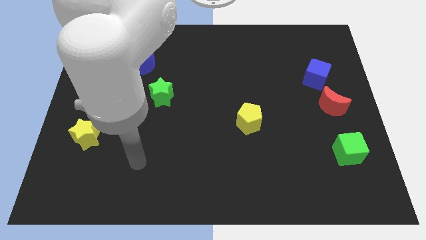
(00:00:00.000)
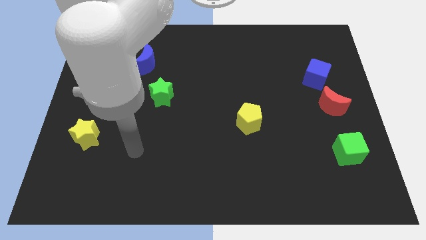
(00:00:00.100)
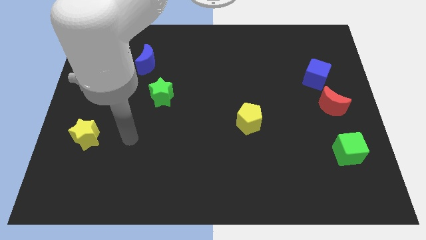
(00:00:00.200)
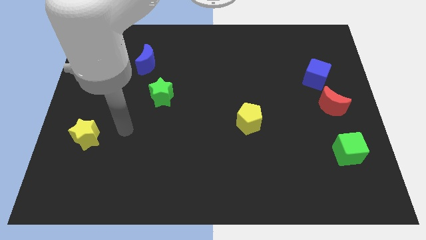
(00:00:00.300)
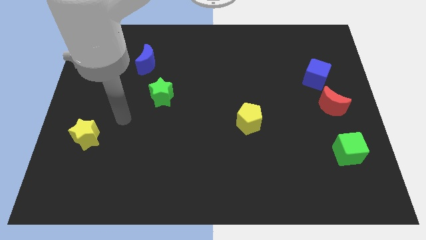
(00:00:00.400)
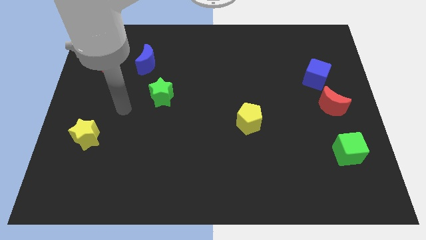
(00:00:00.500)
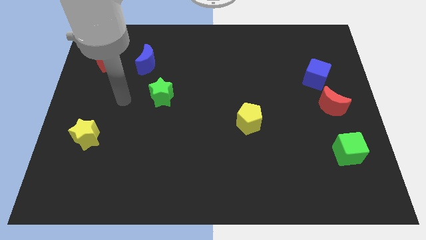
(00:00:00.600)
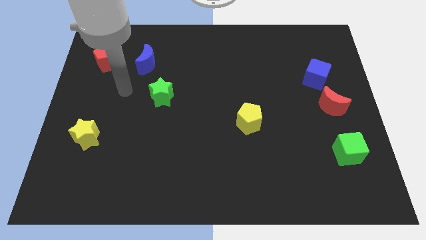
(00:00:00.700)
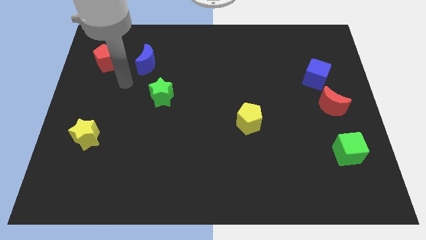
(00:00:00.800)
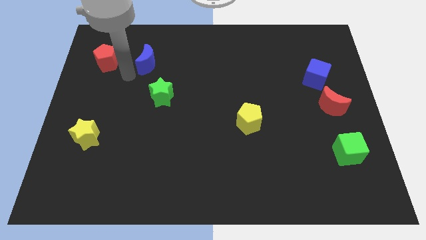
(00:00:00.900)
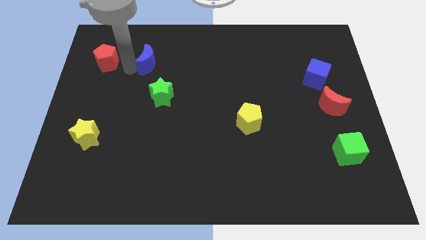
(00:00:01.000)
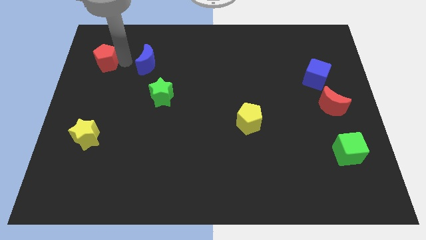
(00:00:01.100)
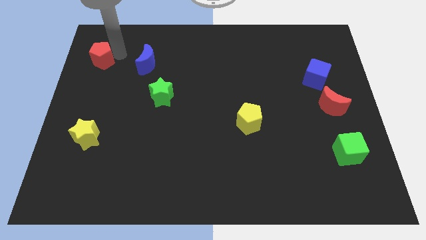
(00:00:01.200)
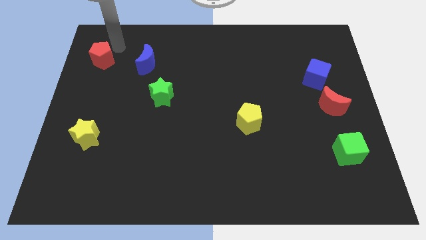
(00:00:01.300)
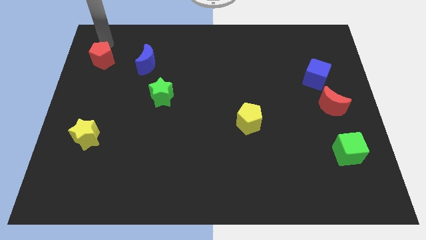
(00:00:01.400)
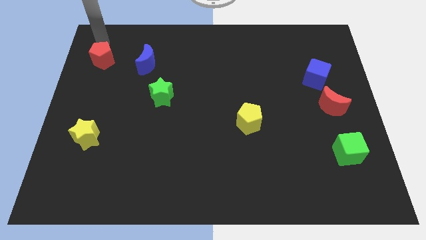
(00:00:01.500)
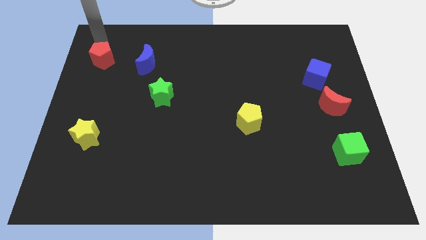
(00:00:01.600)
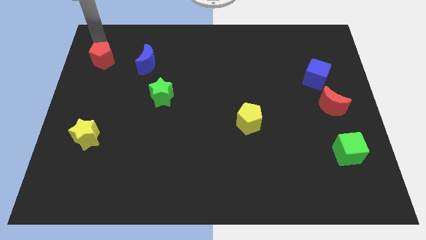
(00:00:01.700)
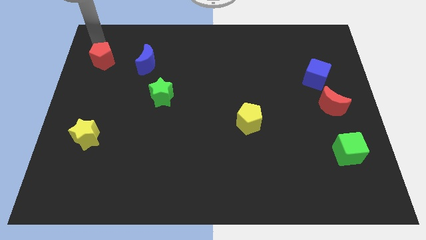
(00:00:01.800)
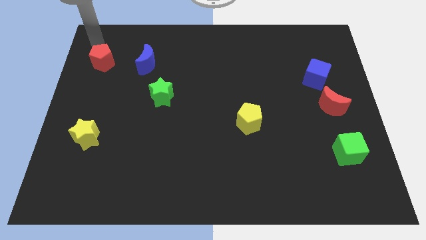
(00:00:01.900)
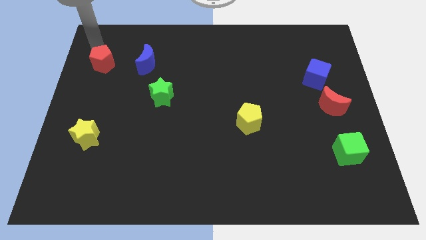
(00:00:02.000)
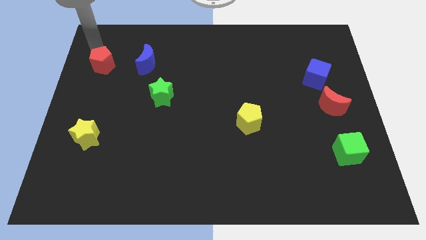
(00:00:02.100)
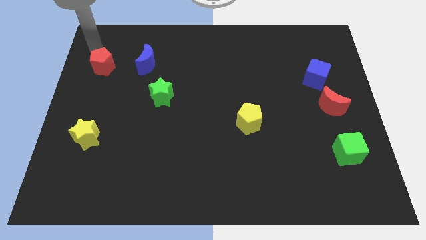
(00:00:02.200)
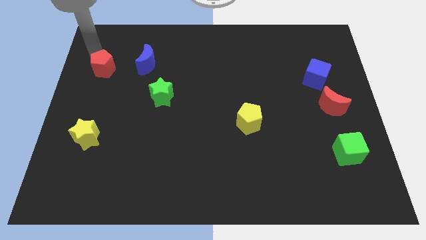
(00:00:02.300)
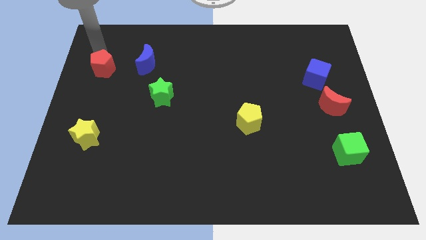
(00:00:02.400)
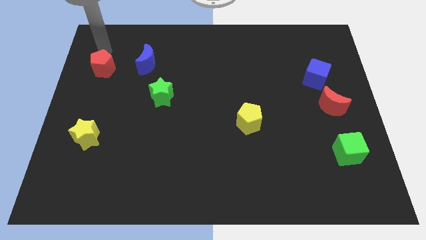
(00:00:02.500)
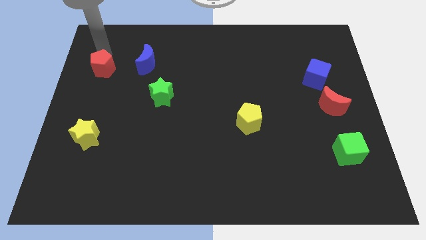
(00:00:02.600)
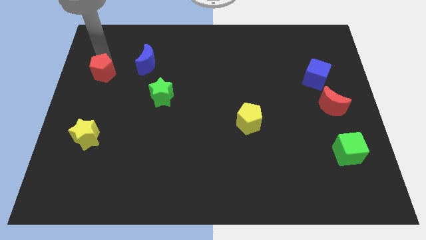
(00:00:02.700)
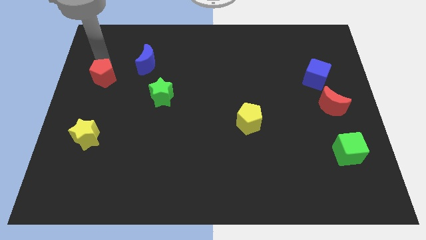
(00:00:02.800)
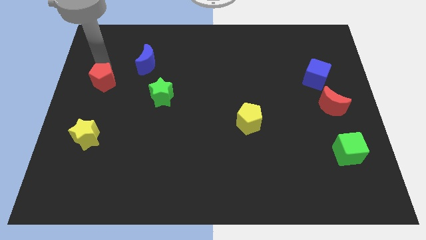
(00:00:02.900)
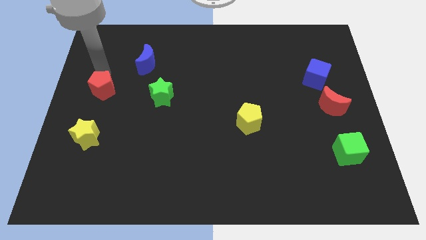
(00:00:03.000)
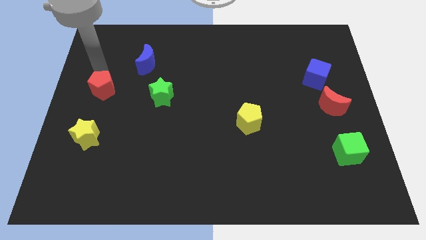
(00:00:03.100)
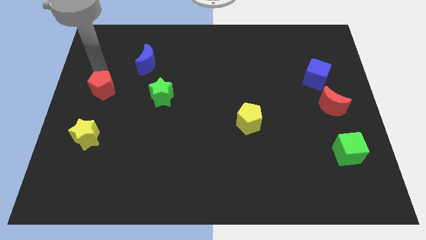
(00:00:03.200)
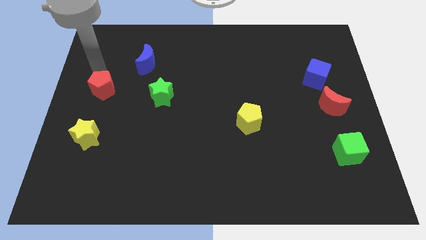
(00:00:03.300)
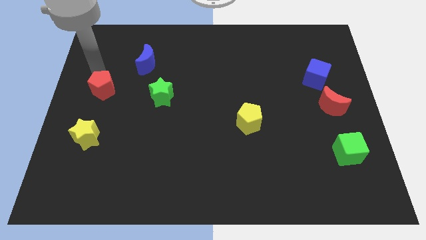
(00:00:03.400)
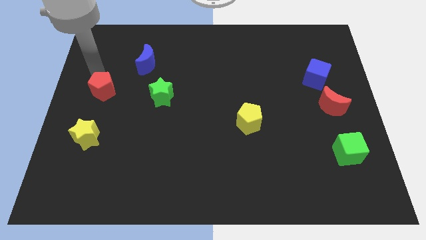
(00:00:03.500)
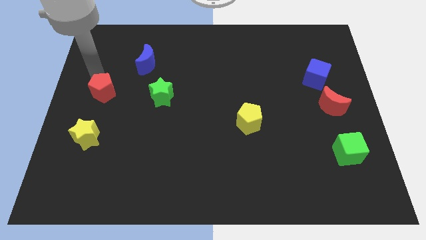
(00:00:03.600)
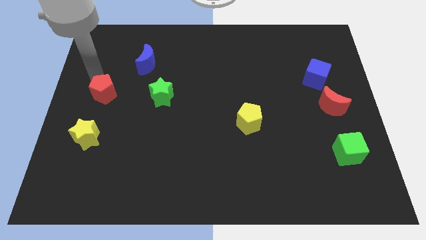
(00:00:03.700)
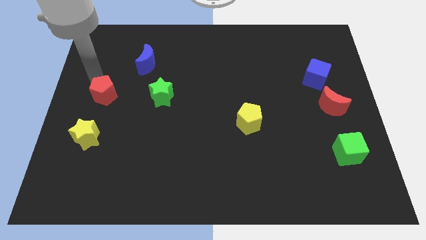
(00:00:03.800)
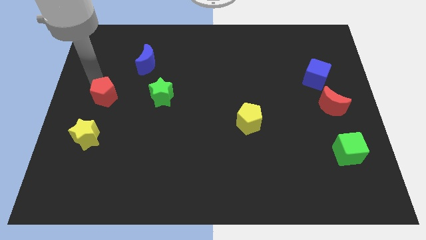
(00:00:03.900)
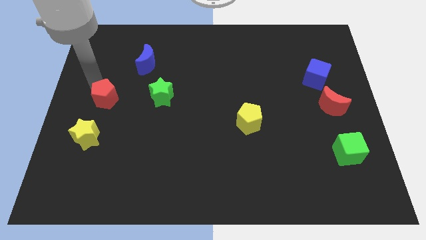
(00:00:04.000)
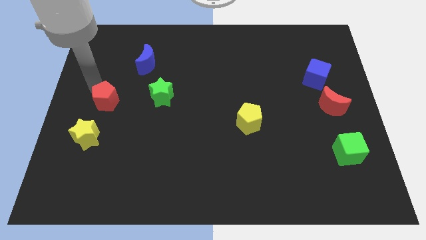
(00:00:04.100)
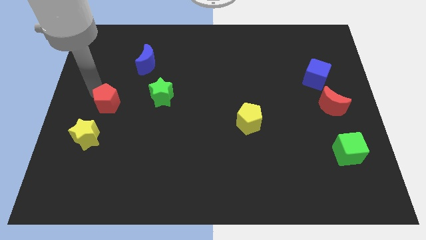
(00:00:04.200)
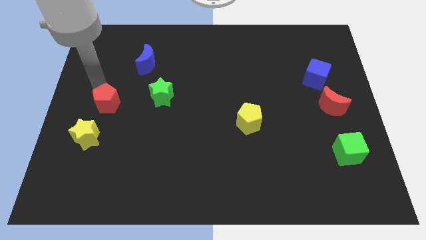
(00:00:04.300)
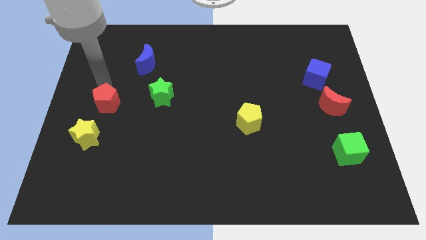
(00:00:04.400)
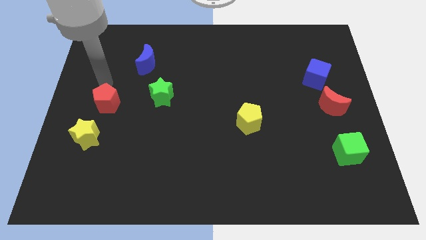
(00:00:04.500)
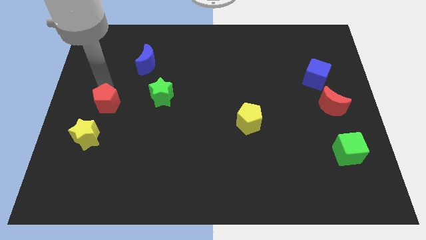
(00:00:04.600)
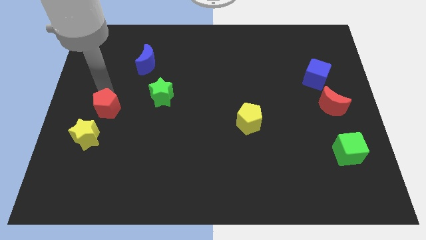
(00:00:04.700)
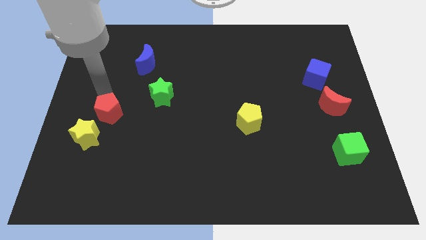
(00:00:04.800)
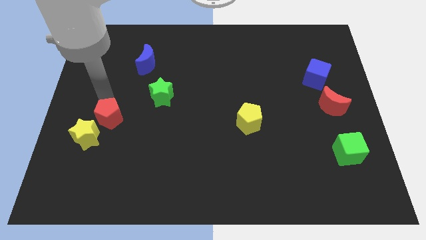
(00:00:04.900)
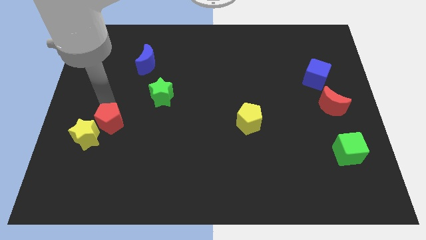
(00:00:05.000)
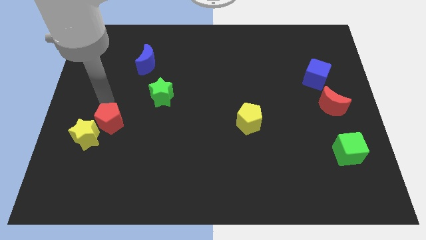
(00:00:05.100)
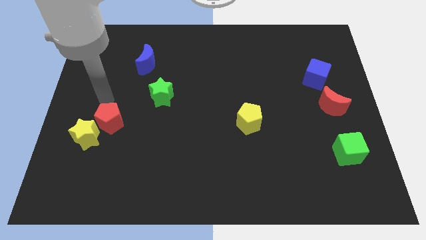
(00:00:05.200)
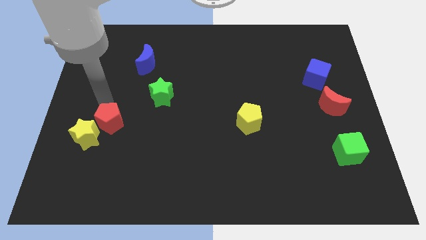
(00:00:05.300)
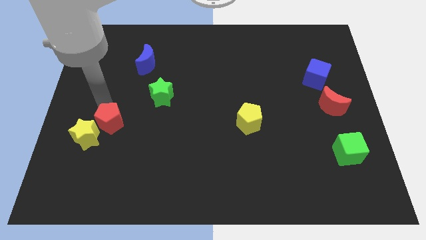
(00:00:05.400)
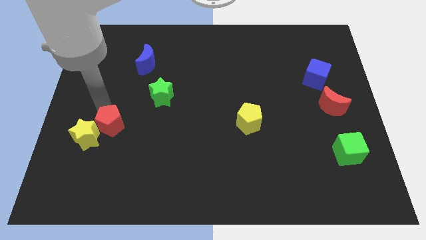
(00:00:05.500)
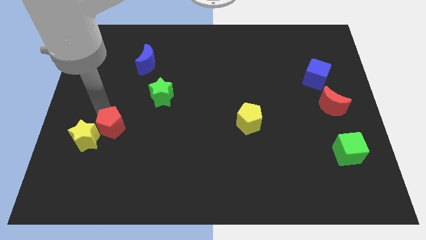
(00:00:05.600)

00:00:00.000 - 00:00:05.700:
push the red pentagon down

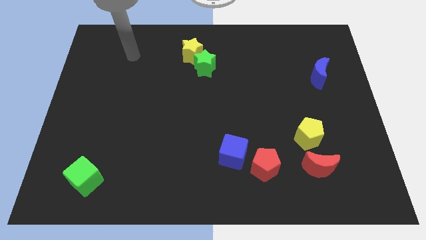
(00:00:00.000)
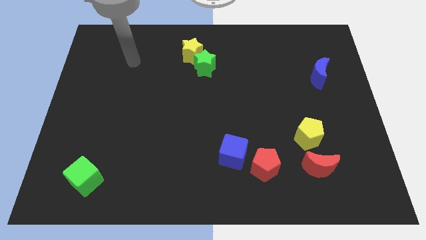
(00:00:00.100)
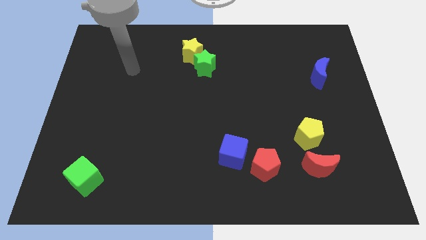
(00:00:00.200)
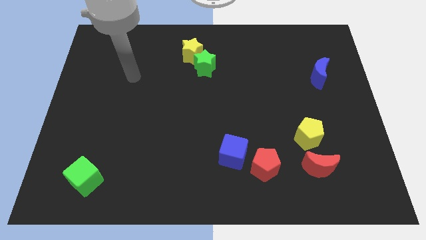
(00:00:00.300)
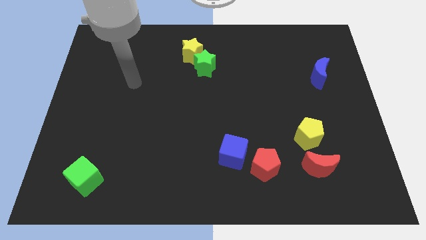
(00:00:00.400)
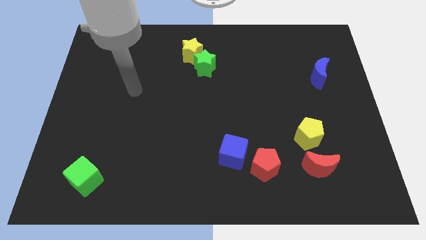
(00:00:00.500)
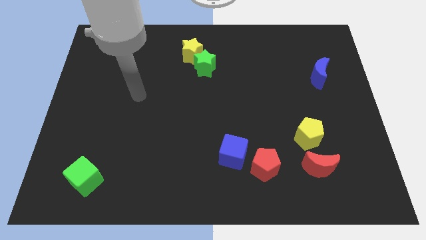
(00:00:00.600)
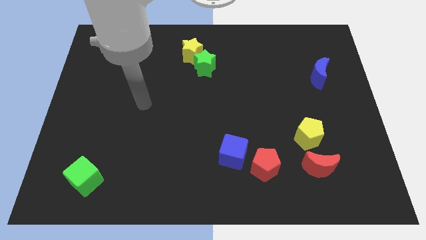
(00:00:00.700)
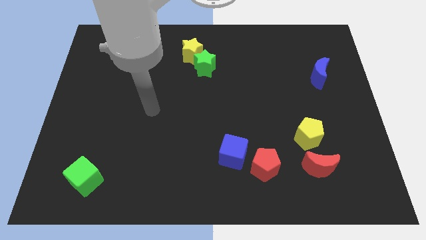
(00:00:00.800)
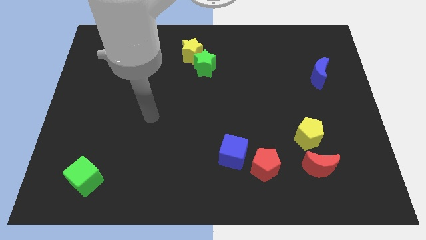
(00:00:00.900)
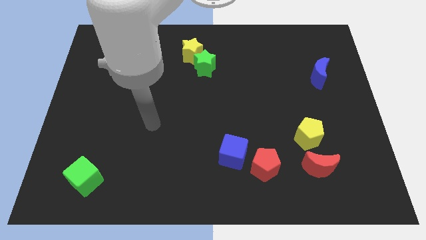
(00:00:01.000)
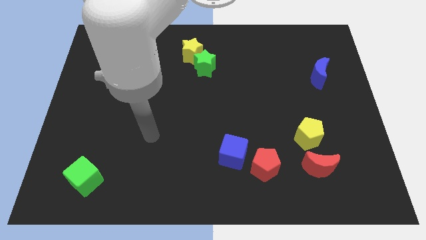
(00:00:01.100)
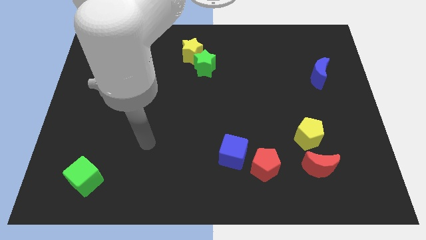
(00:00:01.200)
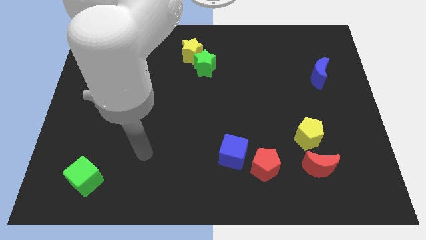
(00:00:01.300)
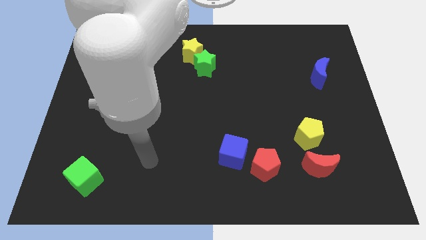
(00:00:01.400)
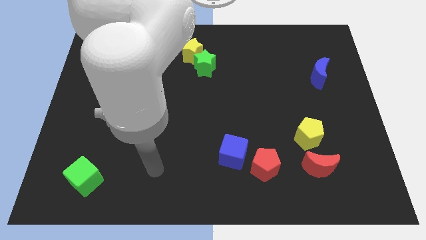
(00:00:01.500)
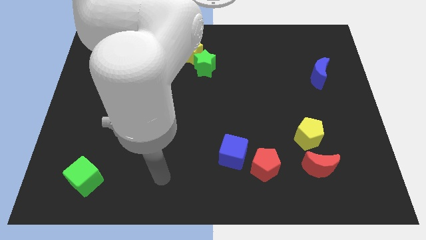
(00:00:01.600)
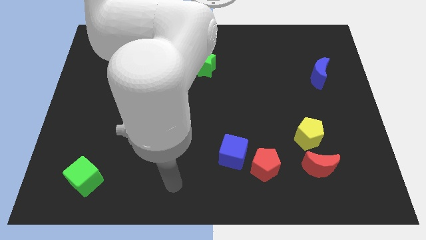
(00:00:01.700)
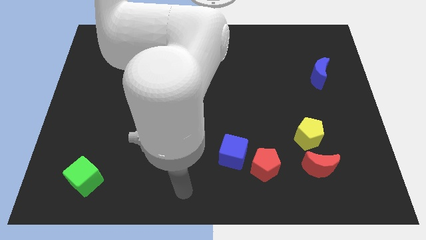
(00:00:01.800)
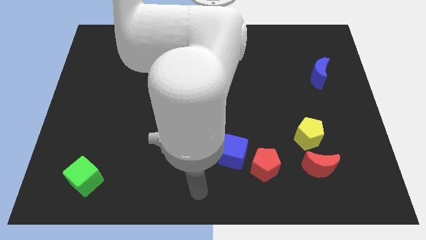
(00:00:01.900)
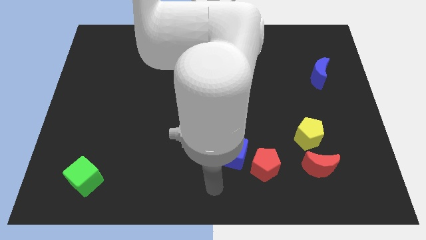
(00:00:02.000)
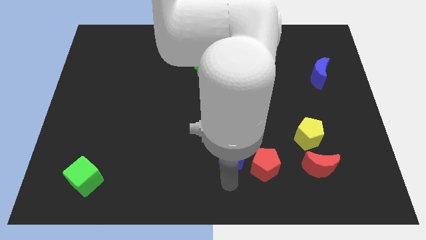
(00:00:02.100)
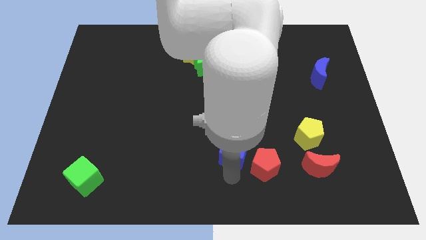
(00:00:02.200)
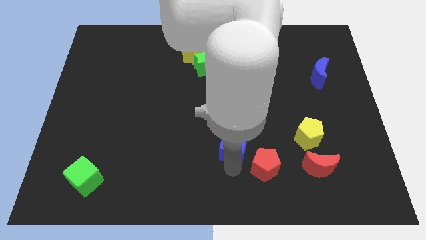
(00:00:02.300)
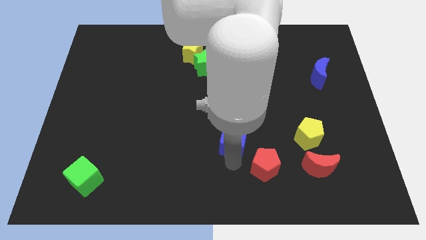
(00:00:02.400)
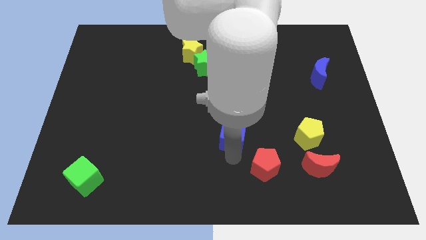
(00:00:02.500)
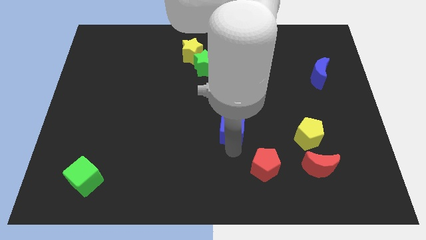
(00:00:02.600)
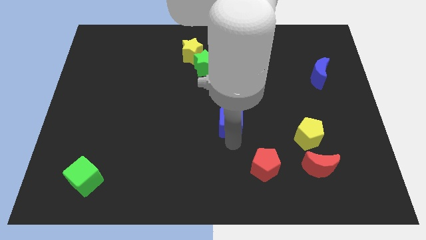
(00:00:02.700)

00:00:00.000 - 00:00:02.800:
push the blue cube up a little bit
